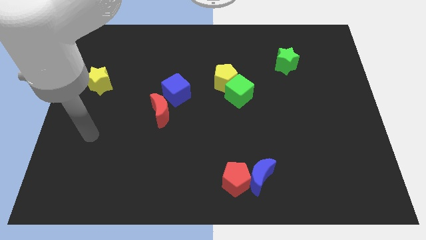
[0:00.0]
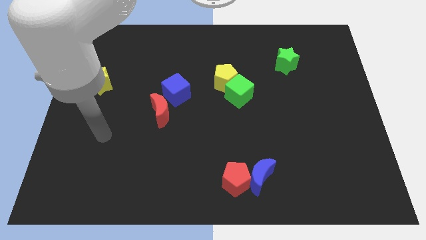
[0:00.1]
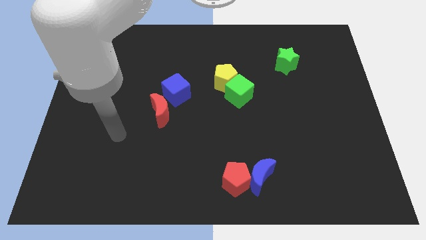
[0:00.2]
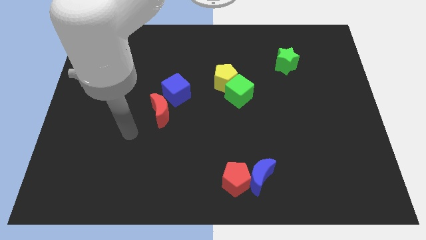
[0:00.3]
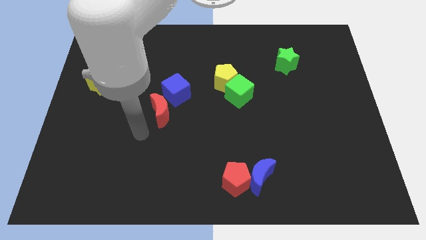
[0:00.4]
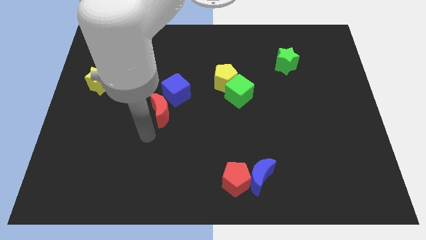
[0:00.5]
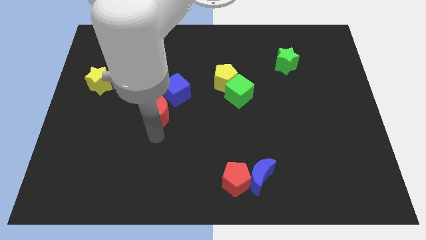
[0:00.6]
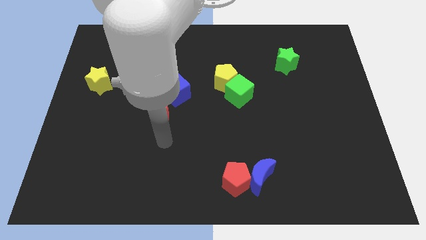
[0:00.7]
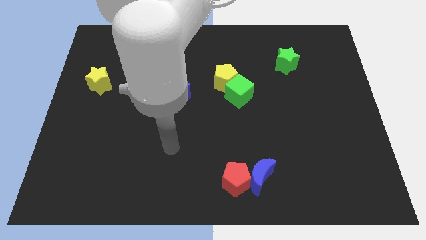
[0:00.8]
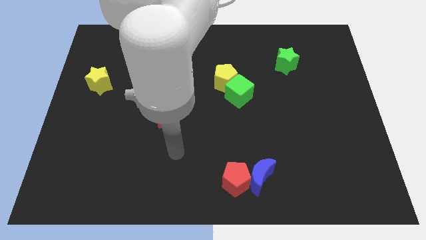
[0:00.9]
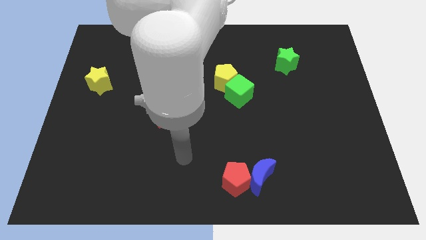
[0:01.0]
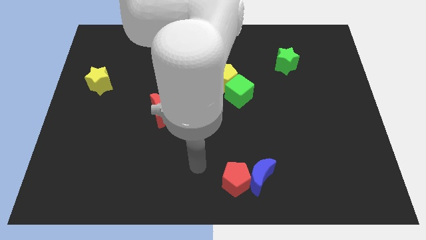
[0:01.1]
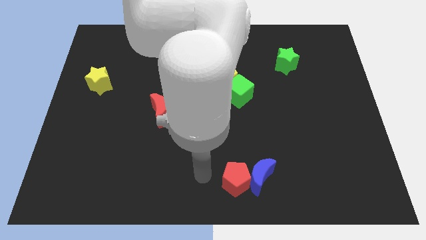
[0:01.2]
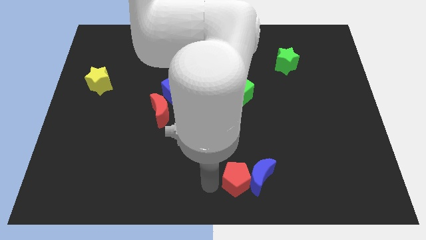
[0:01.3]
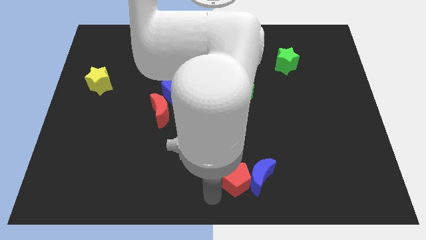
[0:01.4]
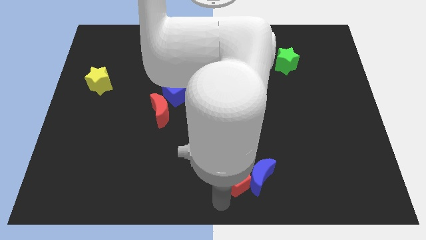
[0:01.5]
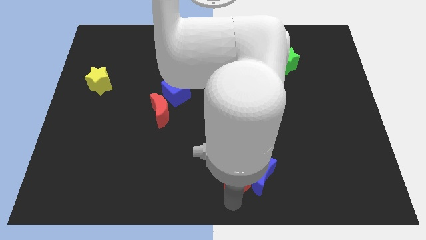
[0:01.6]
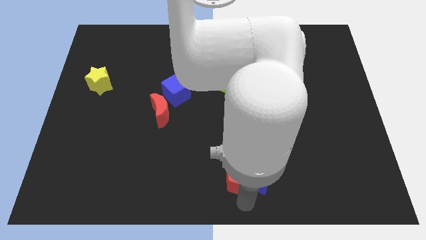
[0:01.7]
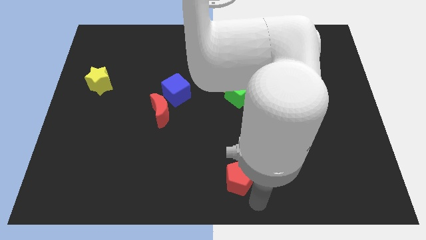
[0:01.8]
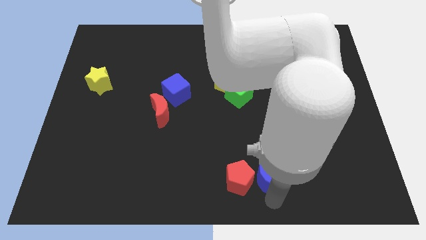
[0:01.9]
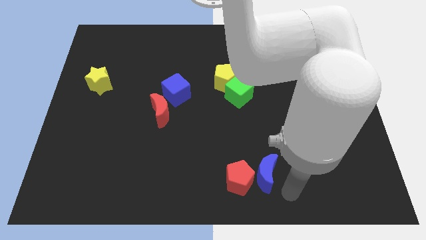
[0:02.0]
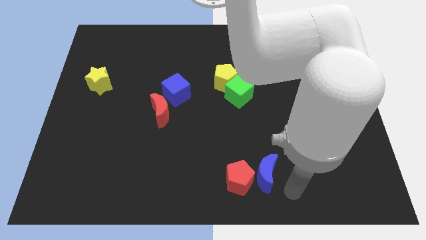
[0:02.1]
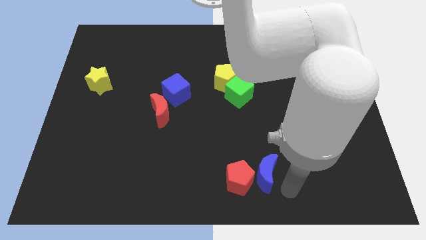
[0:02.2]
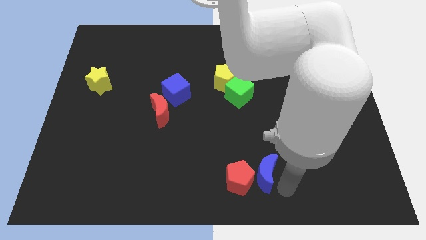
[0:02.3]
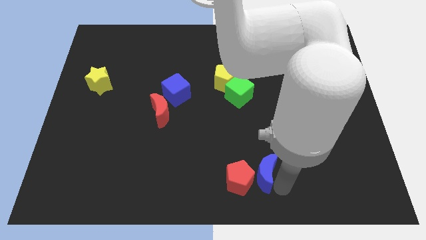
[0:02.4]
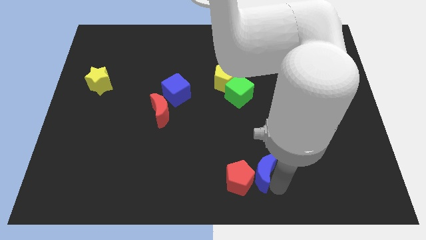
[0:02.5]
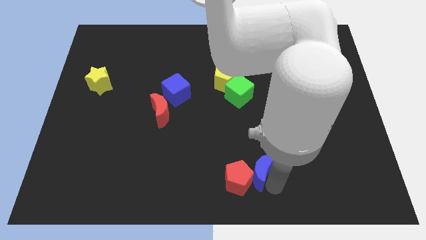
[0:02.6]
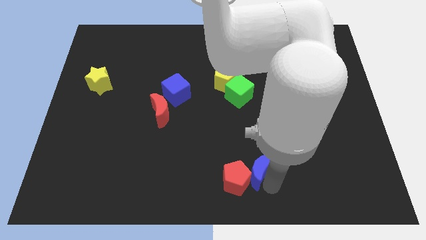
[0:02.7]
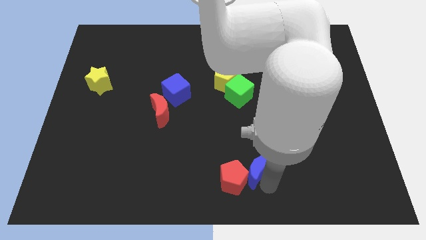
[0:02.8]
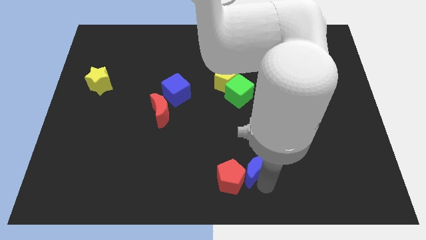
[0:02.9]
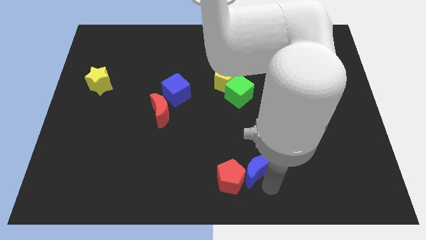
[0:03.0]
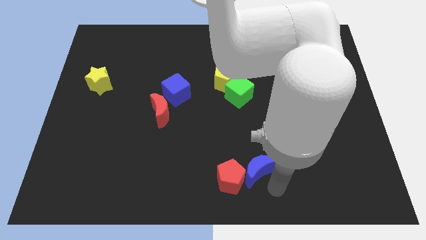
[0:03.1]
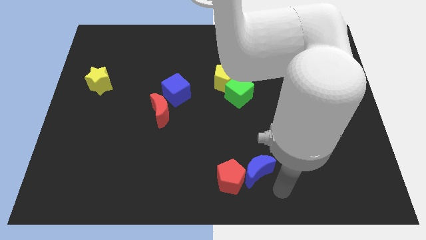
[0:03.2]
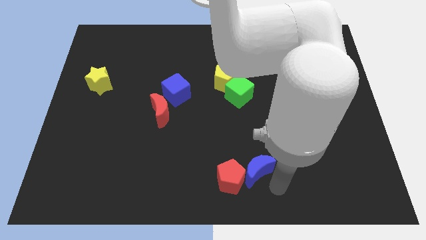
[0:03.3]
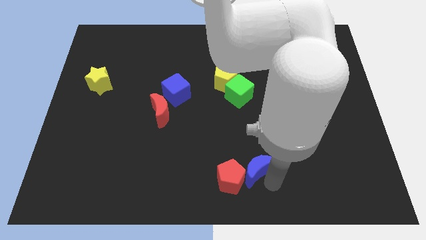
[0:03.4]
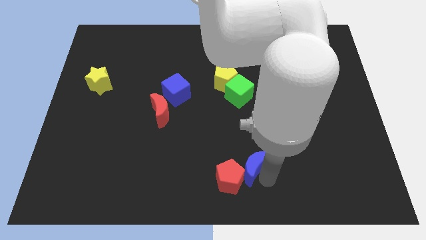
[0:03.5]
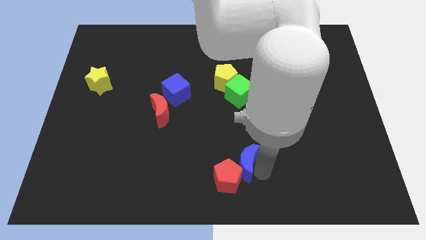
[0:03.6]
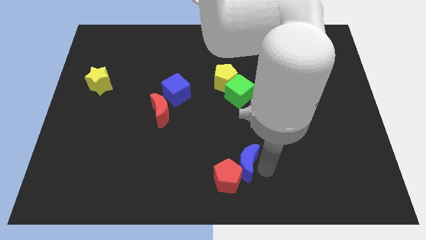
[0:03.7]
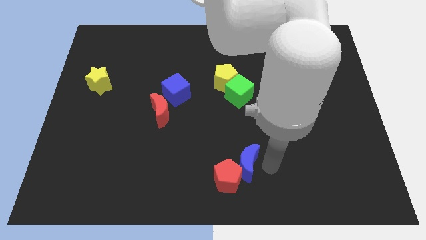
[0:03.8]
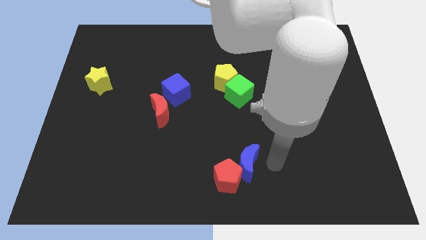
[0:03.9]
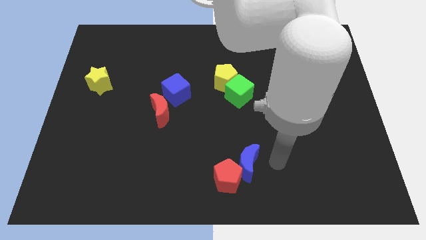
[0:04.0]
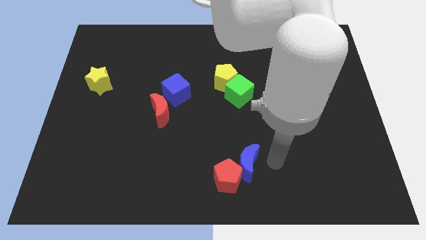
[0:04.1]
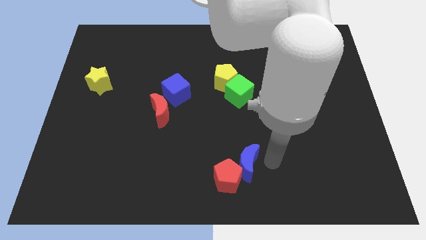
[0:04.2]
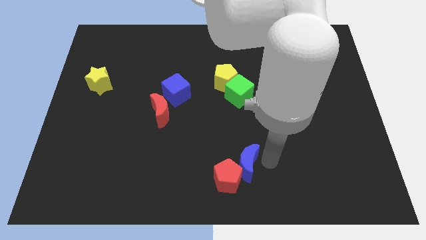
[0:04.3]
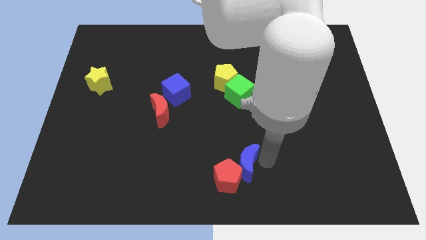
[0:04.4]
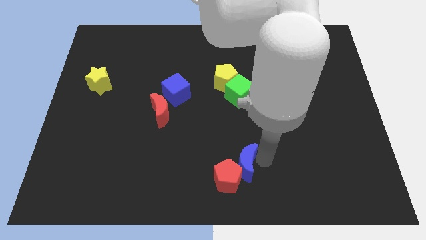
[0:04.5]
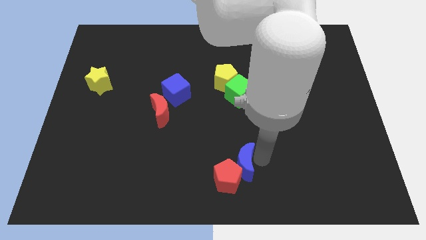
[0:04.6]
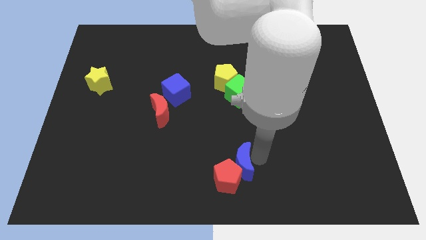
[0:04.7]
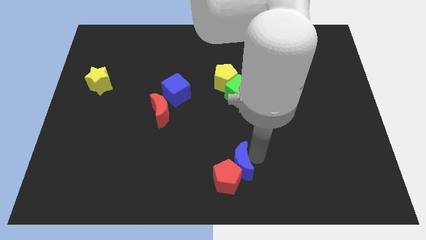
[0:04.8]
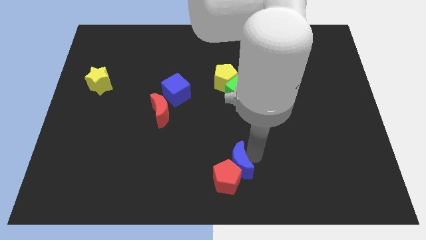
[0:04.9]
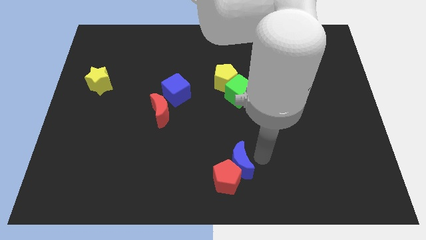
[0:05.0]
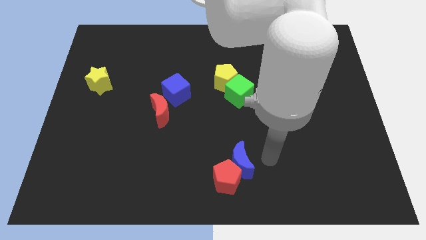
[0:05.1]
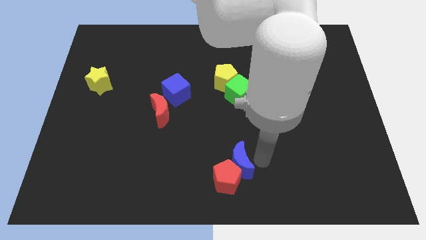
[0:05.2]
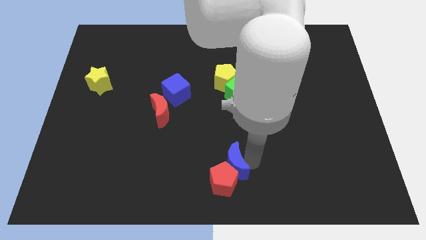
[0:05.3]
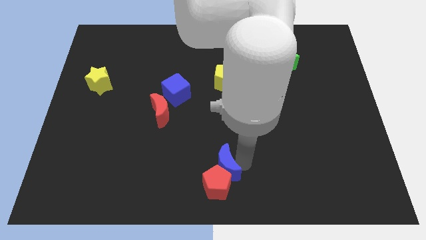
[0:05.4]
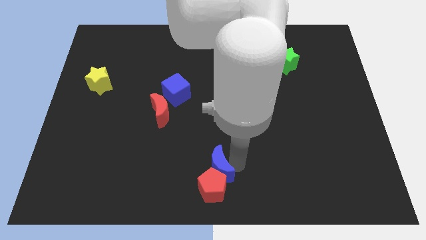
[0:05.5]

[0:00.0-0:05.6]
push the blue moon somewhat left

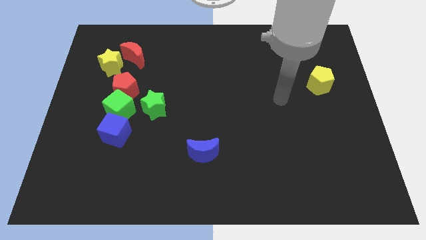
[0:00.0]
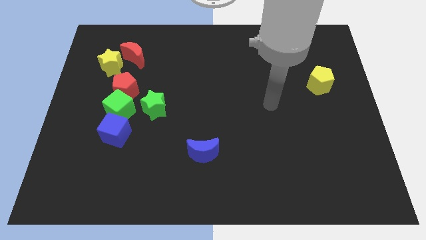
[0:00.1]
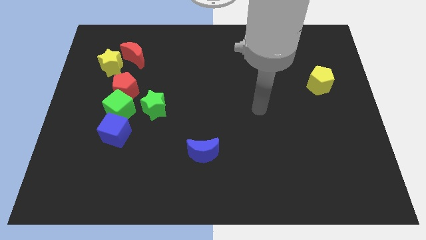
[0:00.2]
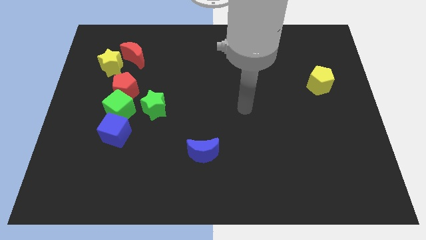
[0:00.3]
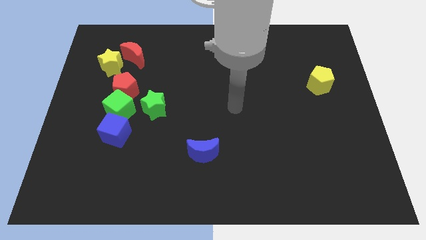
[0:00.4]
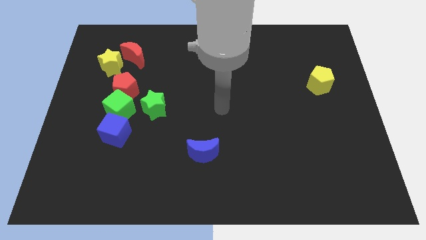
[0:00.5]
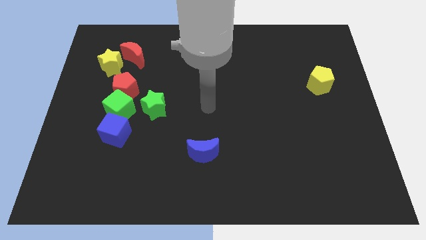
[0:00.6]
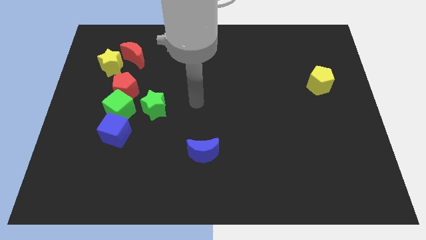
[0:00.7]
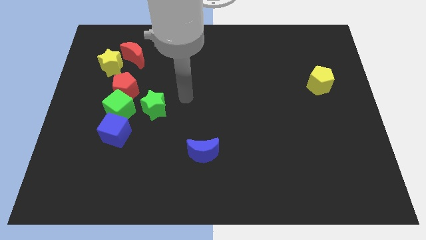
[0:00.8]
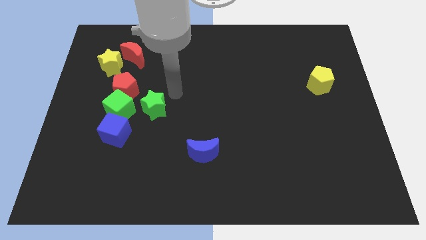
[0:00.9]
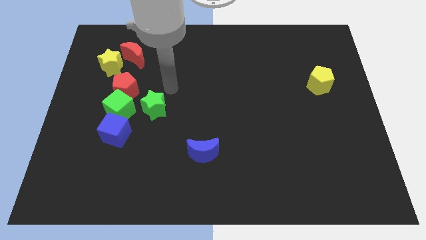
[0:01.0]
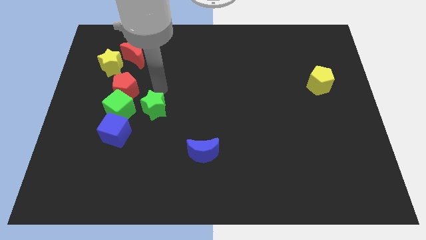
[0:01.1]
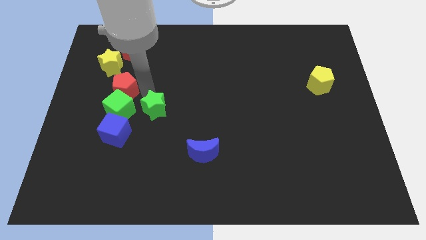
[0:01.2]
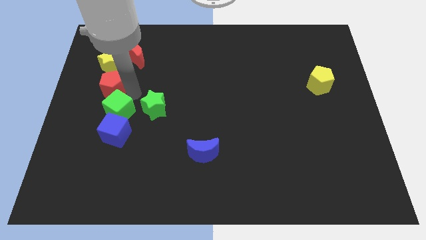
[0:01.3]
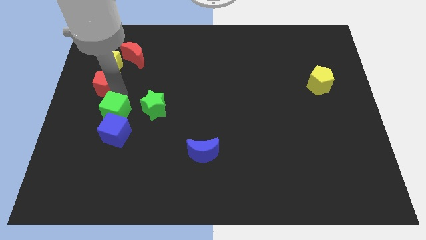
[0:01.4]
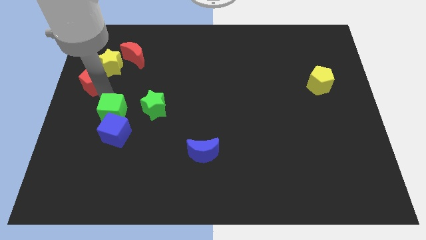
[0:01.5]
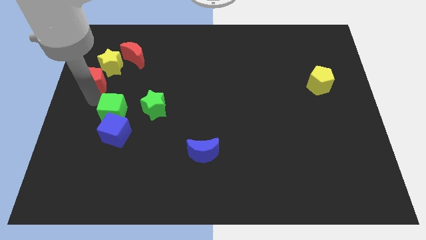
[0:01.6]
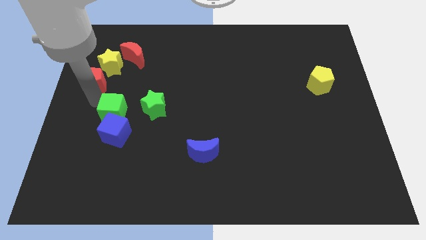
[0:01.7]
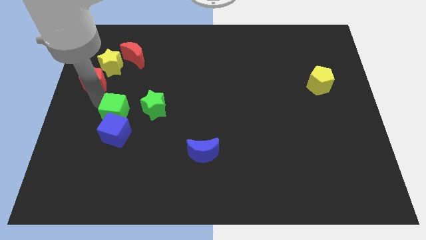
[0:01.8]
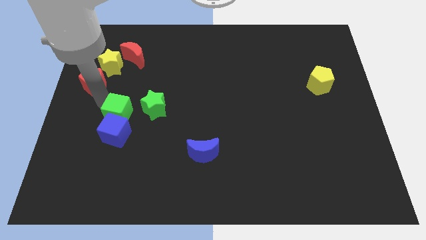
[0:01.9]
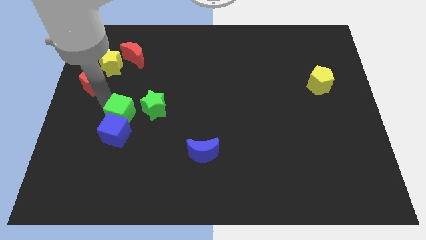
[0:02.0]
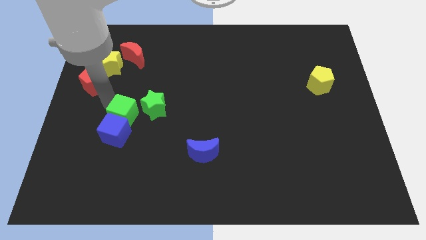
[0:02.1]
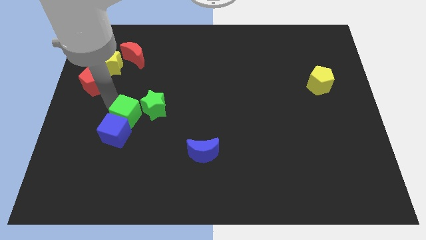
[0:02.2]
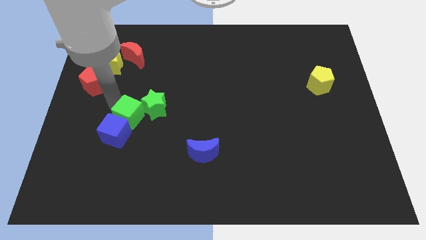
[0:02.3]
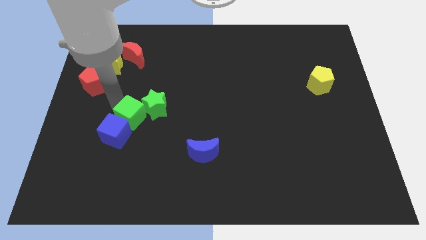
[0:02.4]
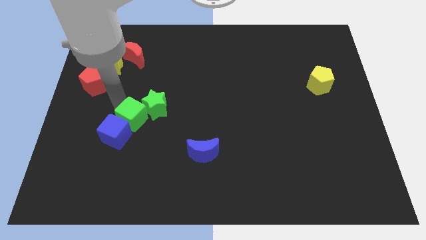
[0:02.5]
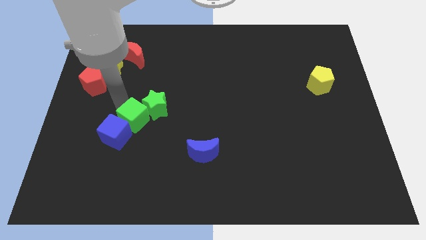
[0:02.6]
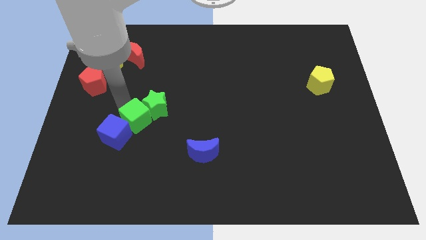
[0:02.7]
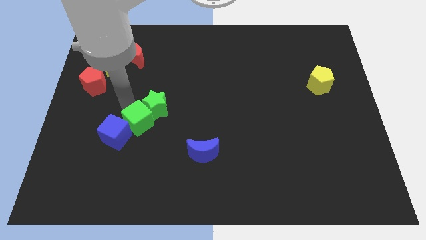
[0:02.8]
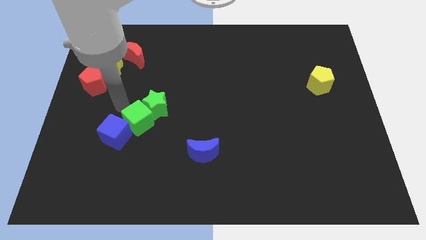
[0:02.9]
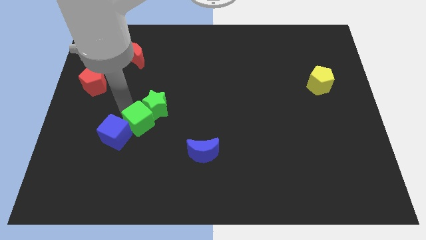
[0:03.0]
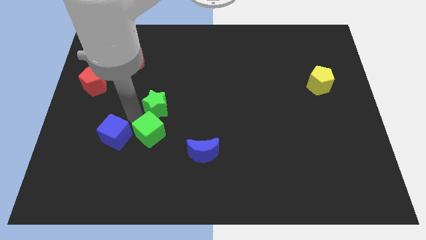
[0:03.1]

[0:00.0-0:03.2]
move the green cube downwards and right diagonally a bit
